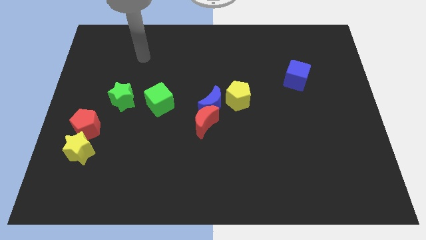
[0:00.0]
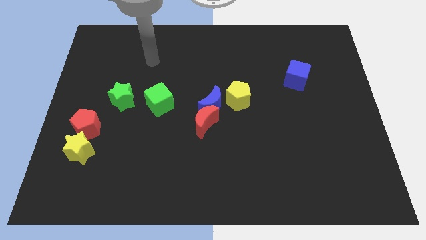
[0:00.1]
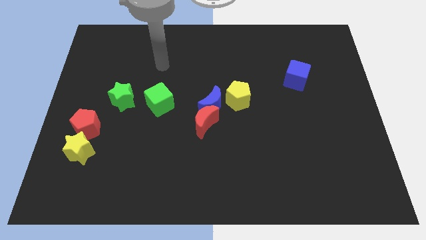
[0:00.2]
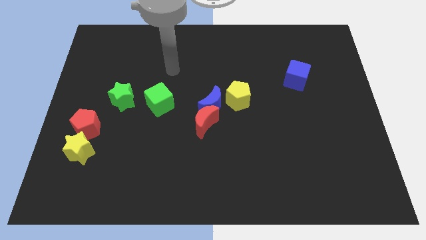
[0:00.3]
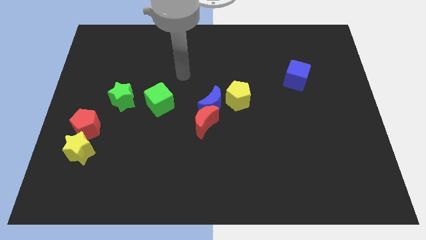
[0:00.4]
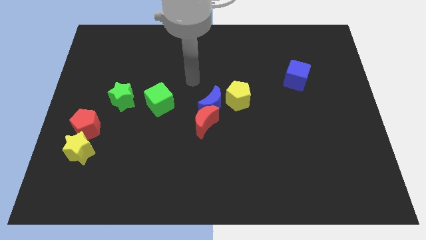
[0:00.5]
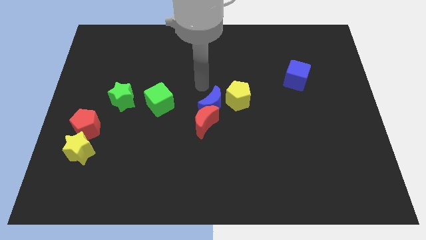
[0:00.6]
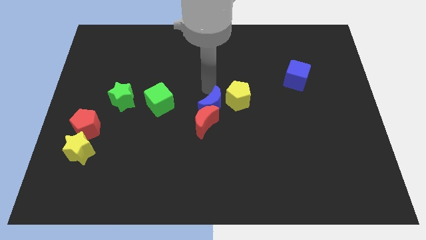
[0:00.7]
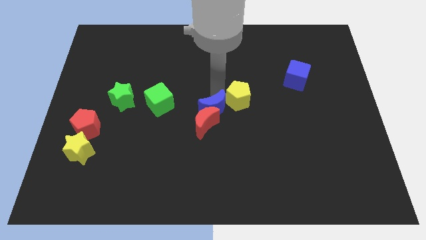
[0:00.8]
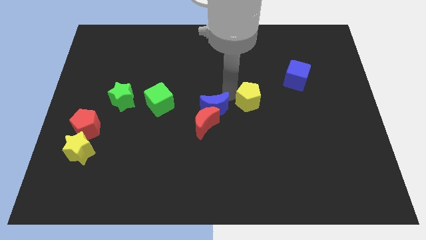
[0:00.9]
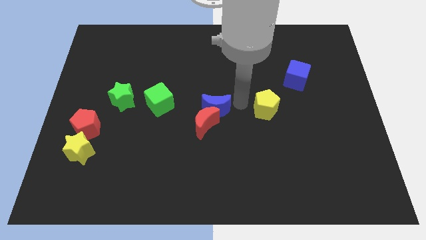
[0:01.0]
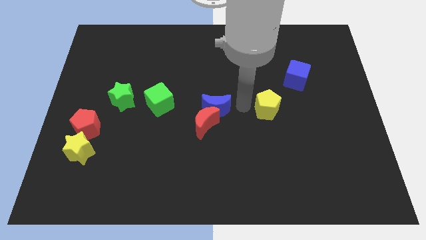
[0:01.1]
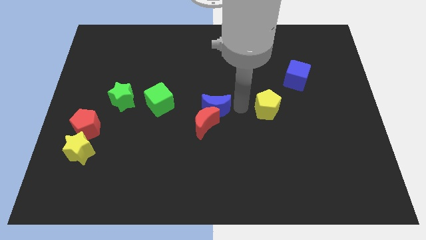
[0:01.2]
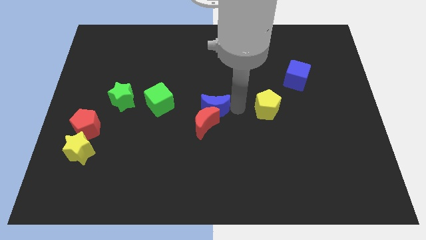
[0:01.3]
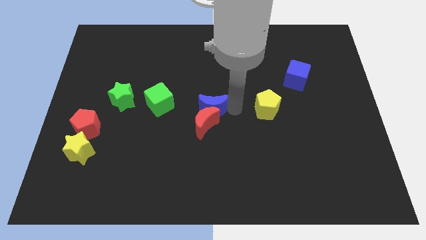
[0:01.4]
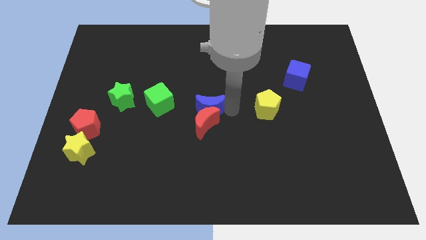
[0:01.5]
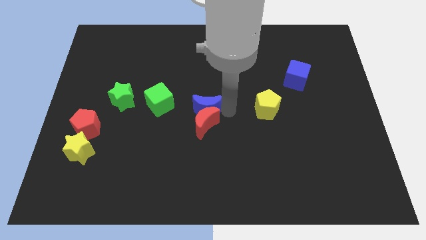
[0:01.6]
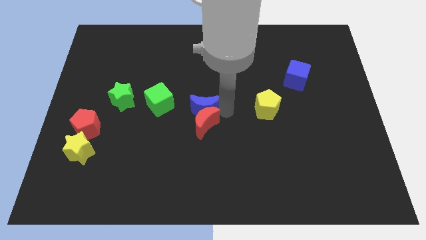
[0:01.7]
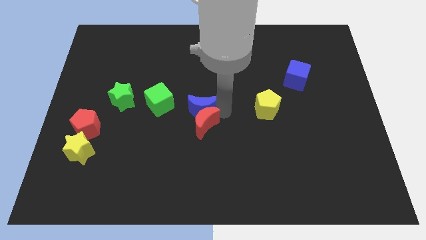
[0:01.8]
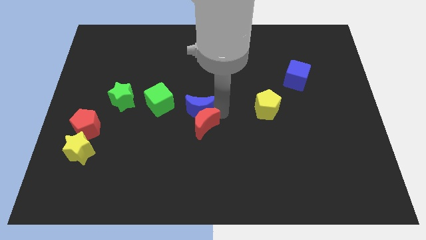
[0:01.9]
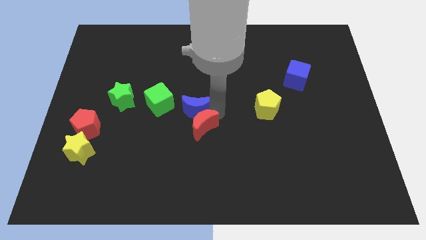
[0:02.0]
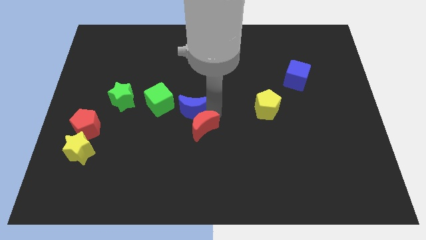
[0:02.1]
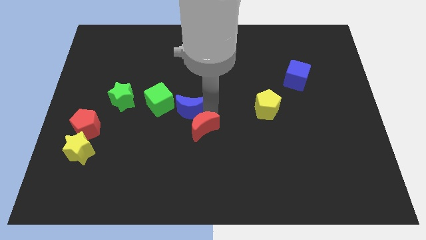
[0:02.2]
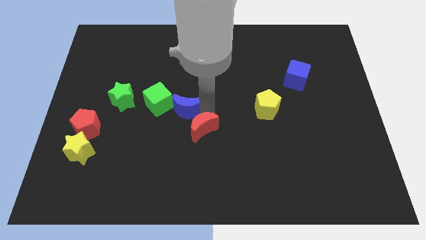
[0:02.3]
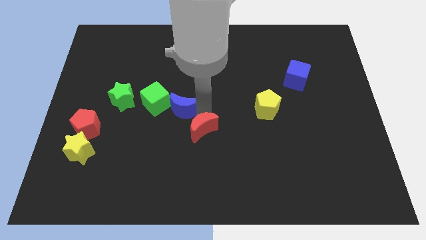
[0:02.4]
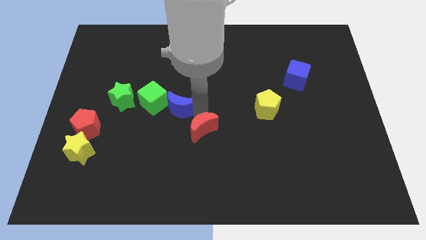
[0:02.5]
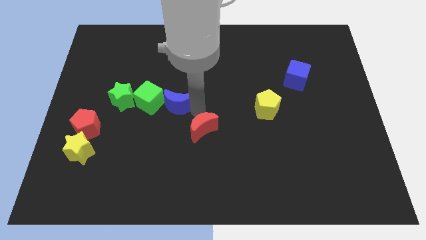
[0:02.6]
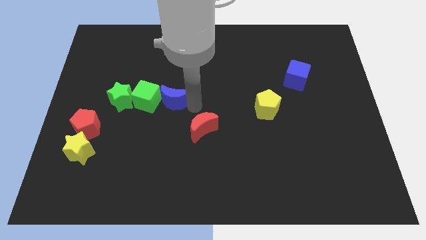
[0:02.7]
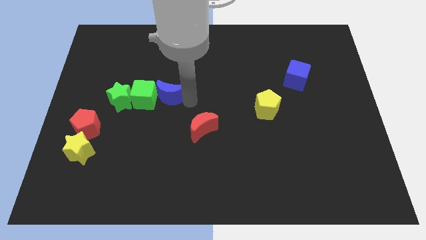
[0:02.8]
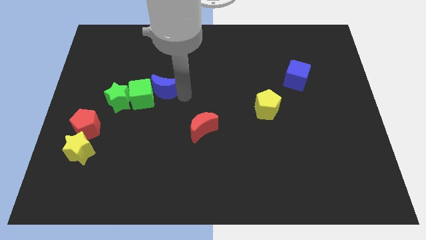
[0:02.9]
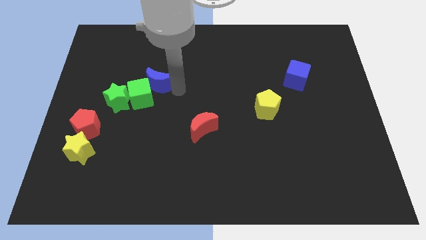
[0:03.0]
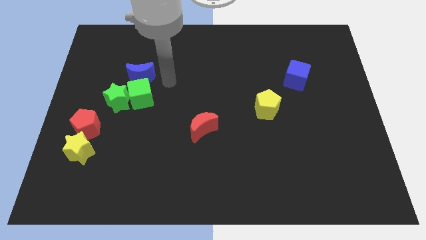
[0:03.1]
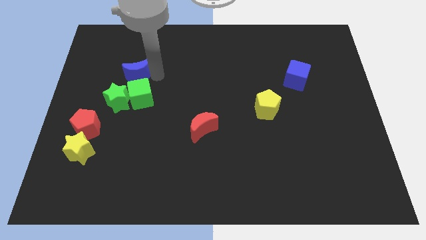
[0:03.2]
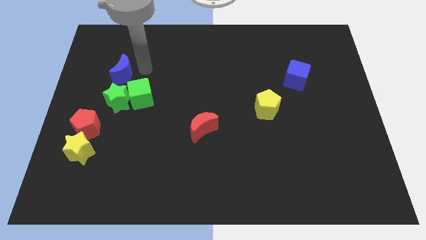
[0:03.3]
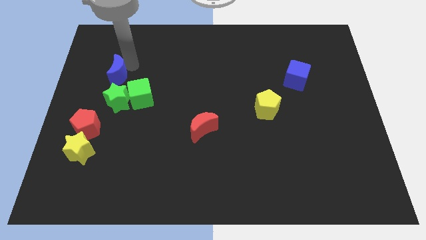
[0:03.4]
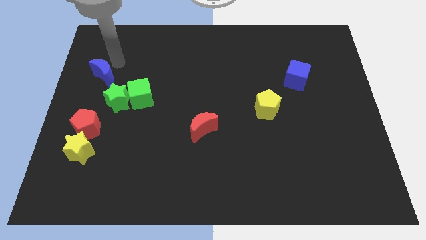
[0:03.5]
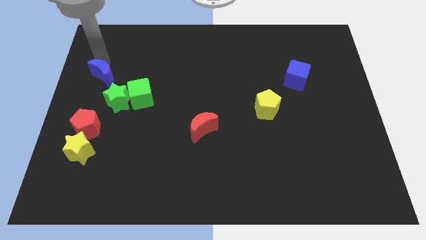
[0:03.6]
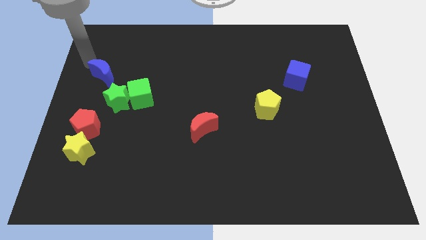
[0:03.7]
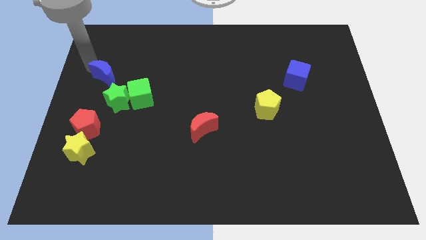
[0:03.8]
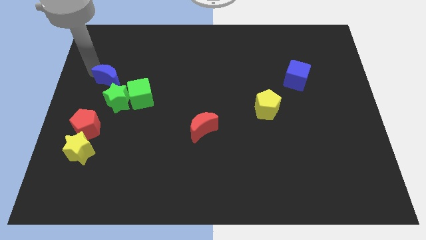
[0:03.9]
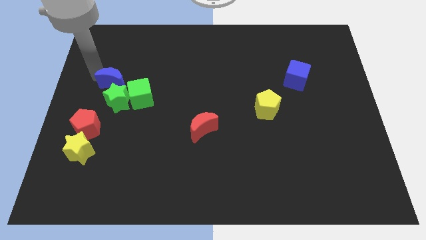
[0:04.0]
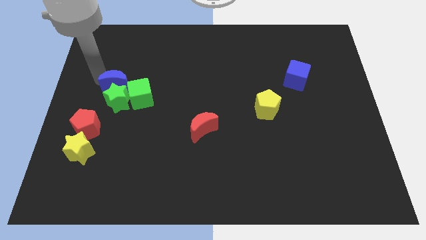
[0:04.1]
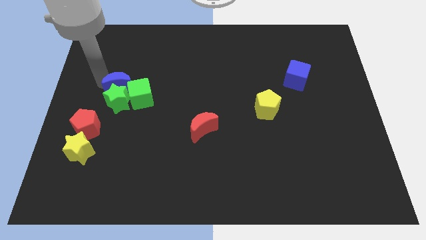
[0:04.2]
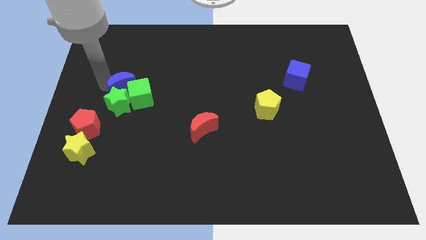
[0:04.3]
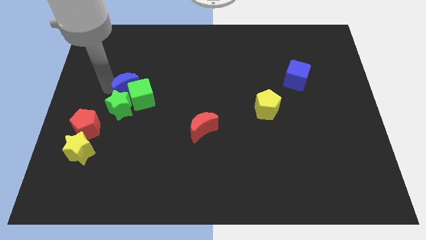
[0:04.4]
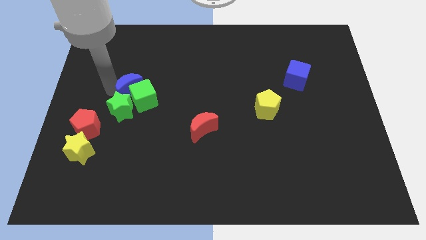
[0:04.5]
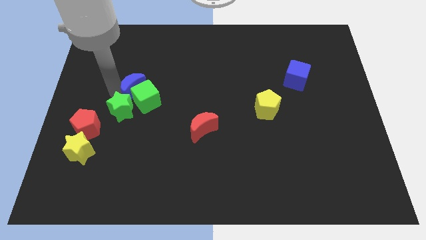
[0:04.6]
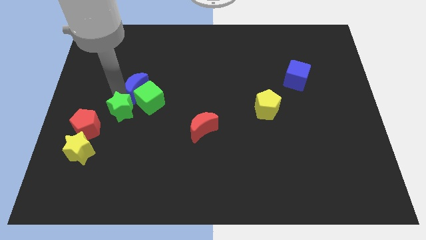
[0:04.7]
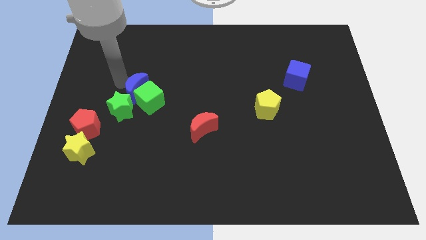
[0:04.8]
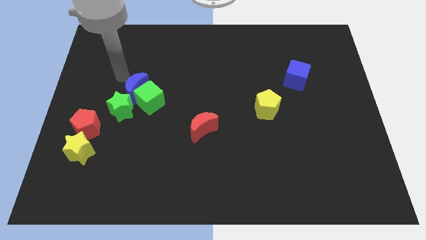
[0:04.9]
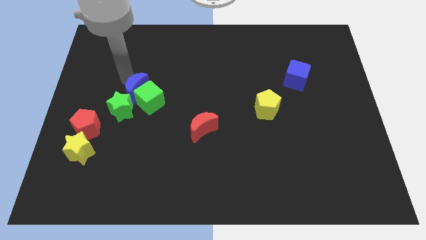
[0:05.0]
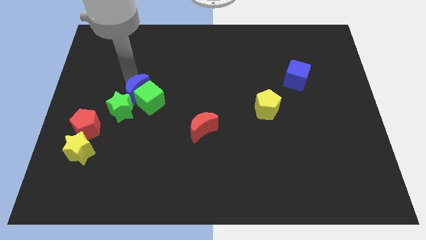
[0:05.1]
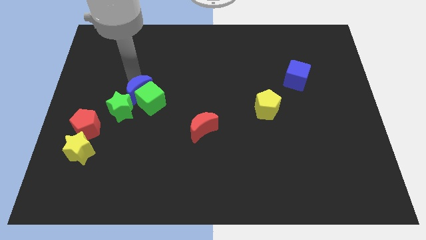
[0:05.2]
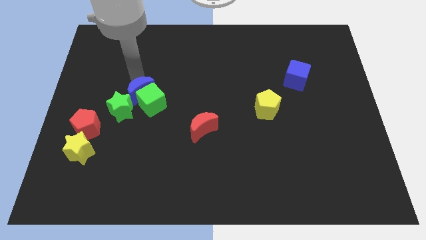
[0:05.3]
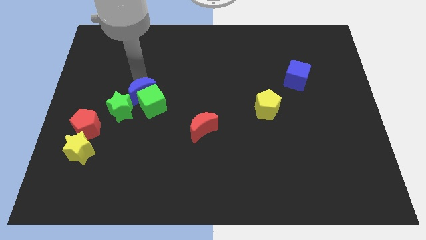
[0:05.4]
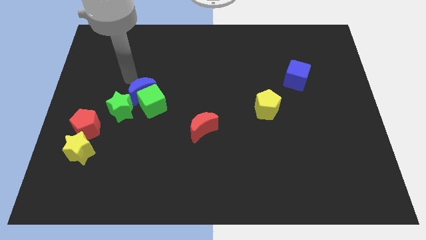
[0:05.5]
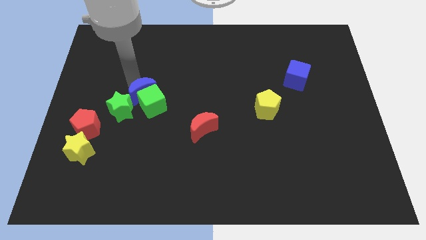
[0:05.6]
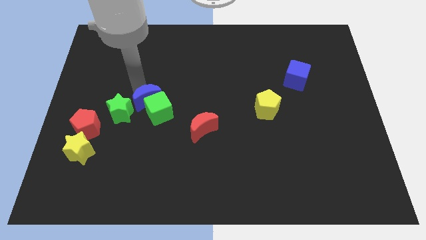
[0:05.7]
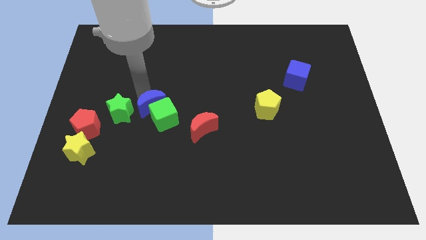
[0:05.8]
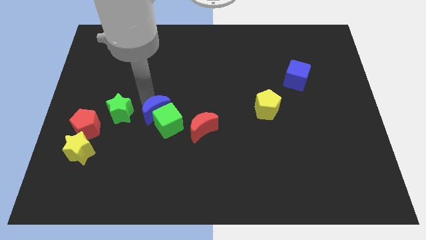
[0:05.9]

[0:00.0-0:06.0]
slide the blue moon a little downwards and to the left

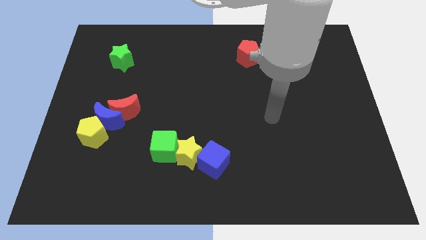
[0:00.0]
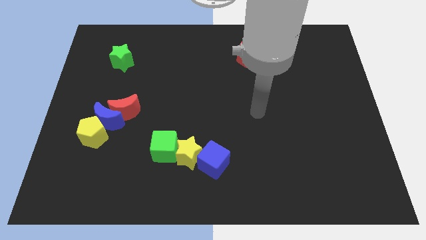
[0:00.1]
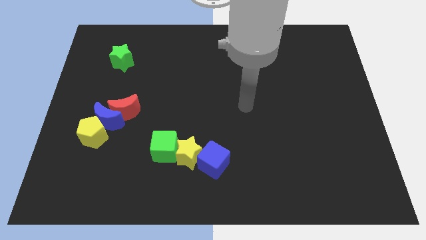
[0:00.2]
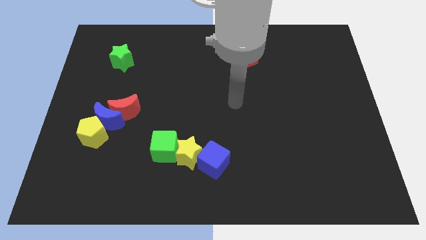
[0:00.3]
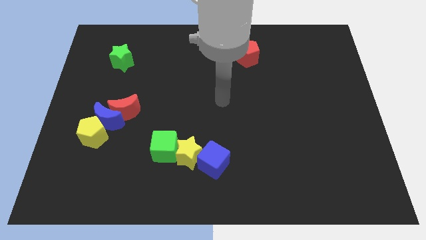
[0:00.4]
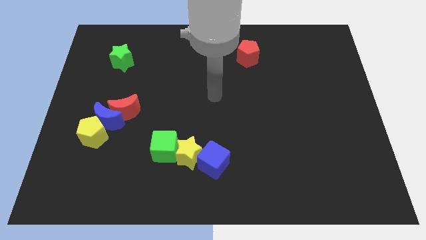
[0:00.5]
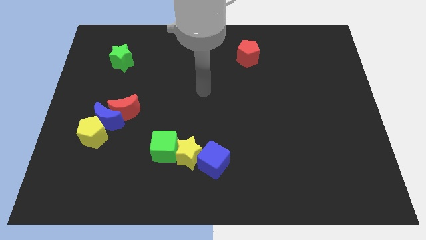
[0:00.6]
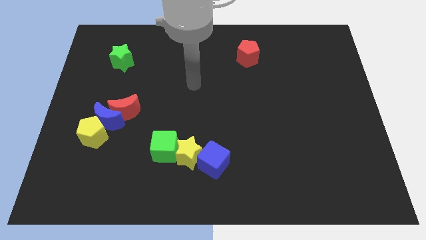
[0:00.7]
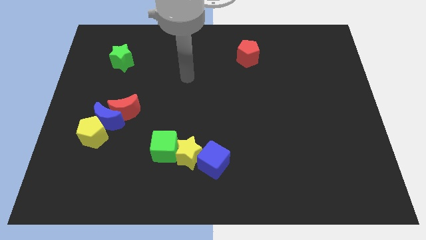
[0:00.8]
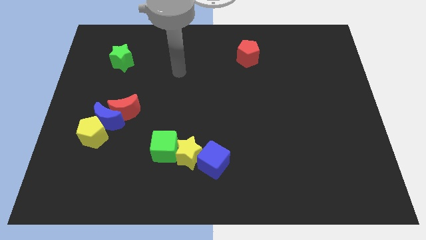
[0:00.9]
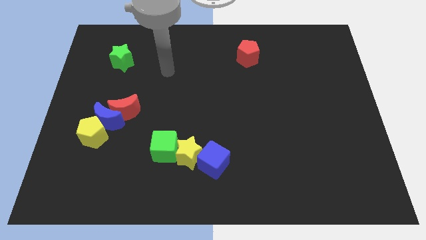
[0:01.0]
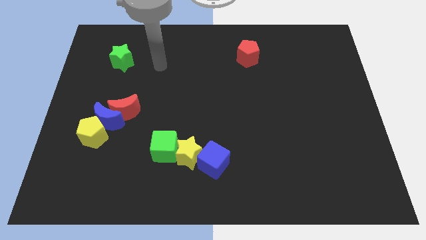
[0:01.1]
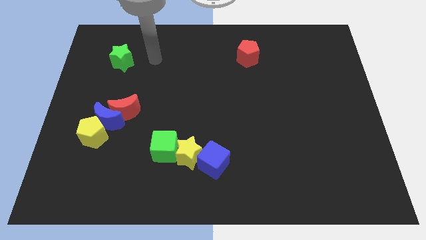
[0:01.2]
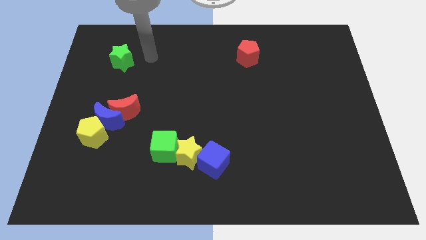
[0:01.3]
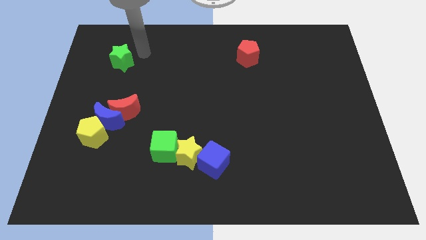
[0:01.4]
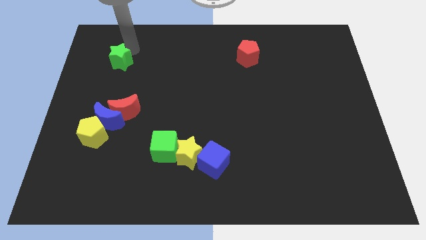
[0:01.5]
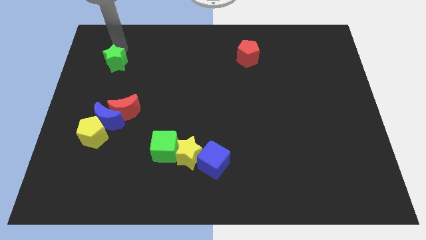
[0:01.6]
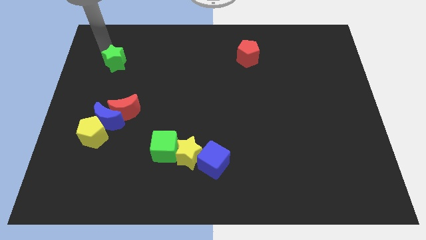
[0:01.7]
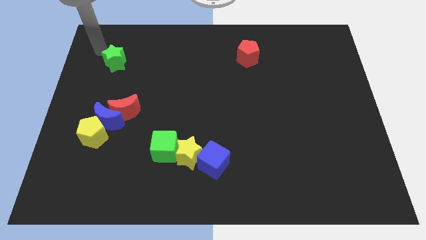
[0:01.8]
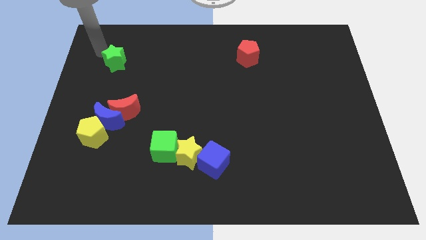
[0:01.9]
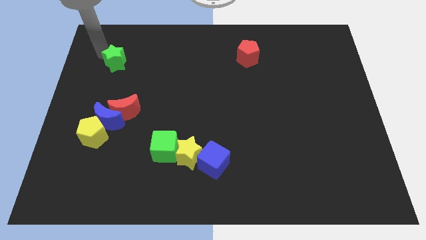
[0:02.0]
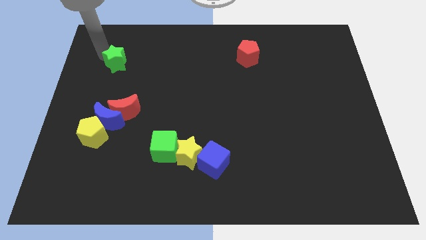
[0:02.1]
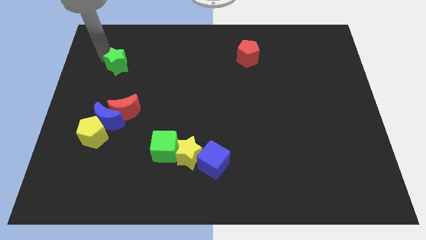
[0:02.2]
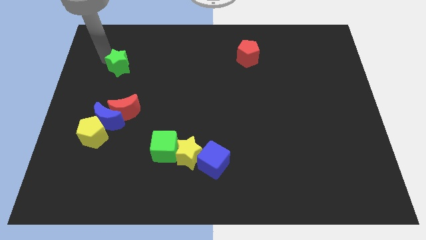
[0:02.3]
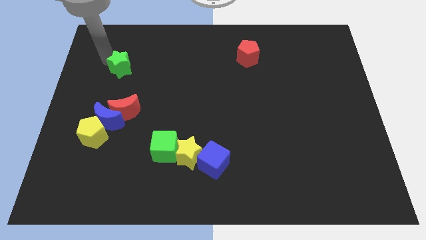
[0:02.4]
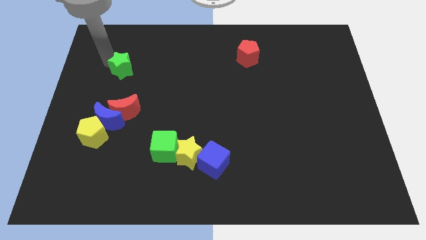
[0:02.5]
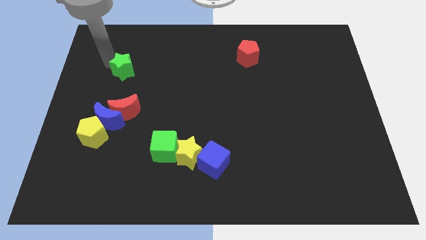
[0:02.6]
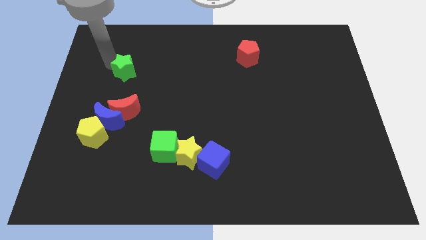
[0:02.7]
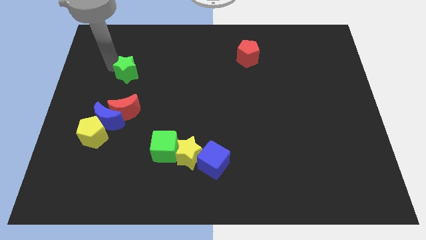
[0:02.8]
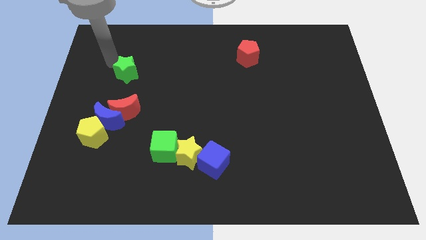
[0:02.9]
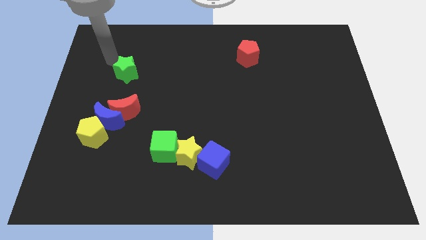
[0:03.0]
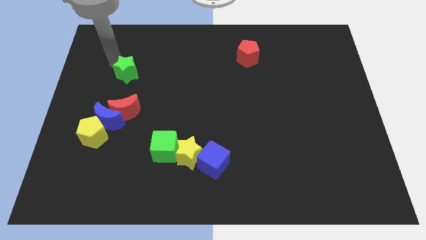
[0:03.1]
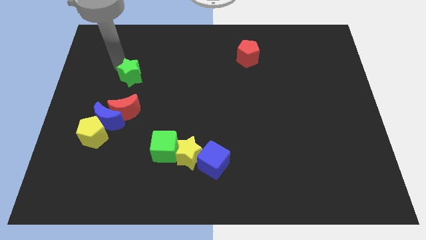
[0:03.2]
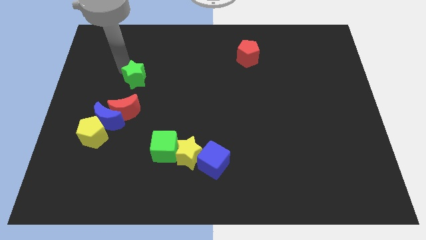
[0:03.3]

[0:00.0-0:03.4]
push the green star downwards and then to the right a little
